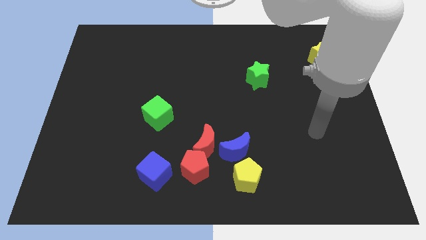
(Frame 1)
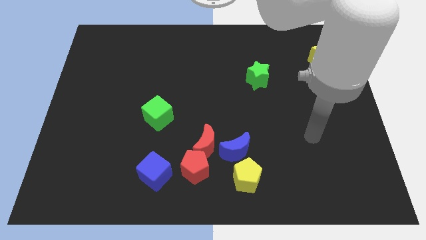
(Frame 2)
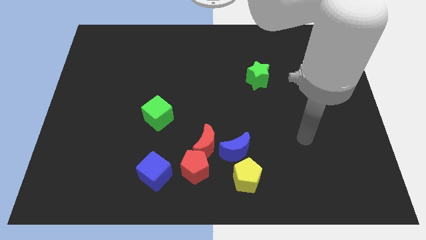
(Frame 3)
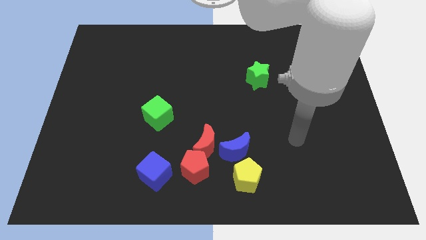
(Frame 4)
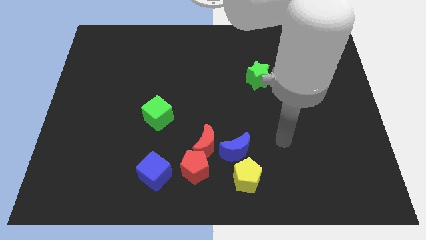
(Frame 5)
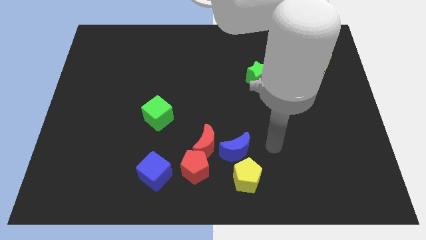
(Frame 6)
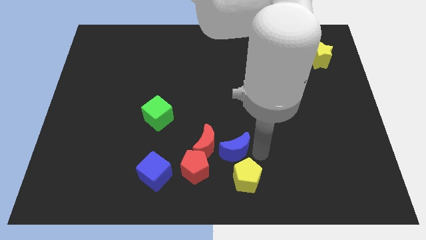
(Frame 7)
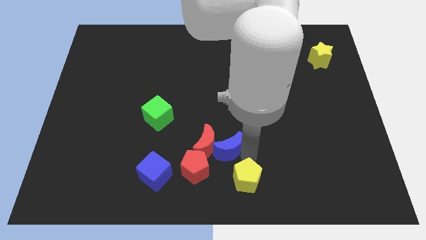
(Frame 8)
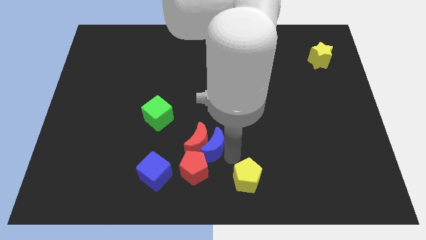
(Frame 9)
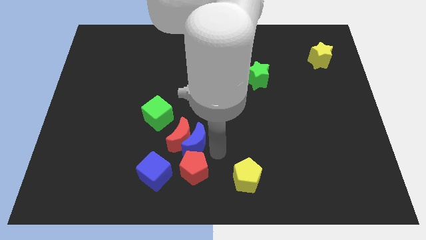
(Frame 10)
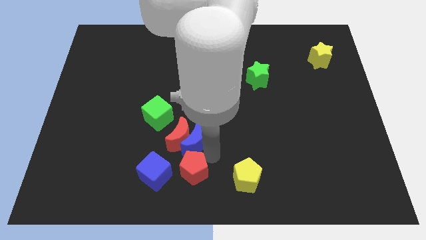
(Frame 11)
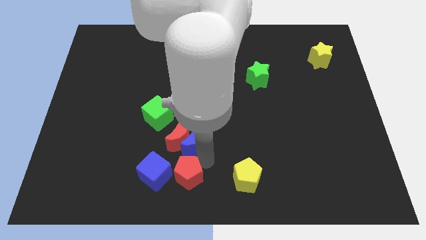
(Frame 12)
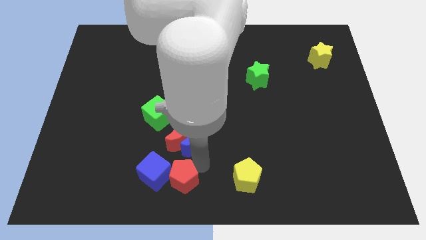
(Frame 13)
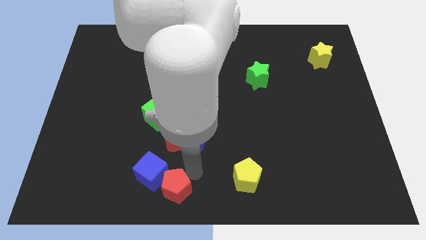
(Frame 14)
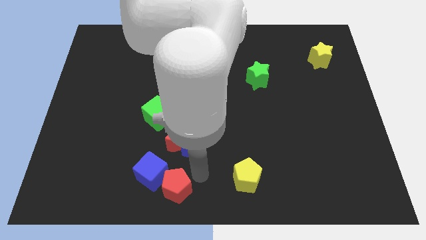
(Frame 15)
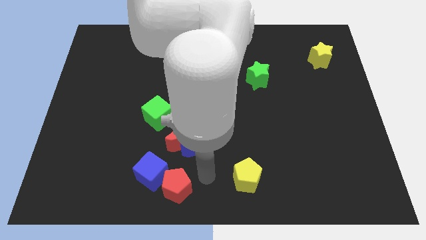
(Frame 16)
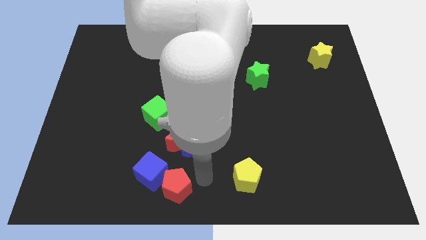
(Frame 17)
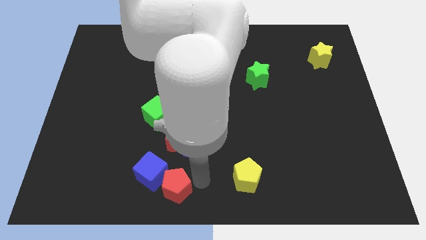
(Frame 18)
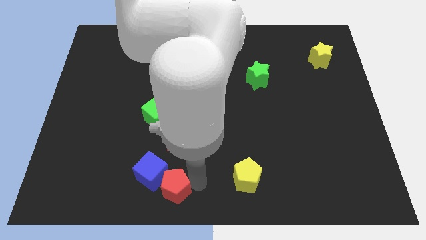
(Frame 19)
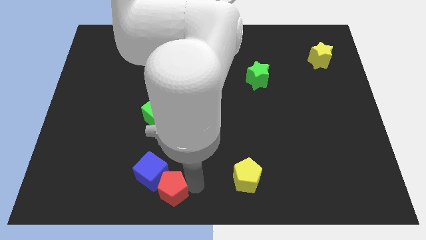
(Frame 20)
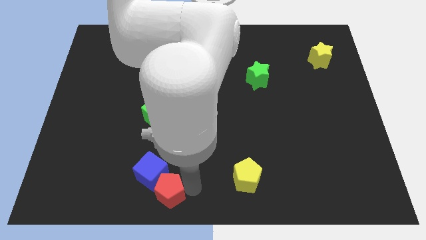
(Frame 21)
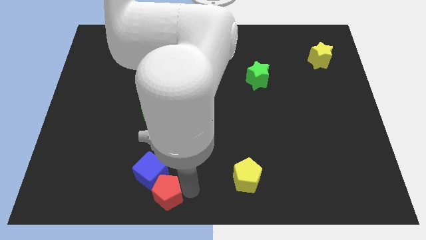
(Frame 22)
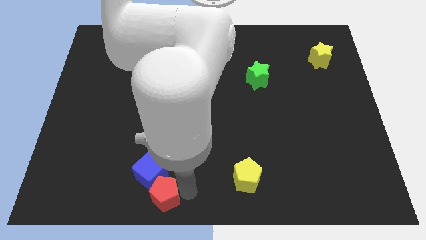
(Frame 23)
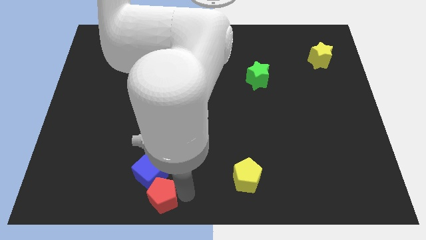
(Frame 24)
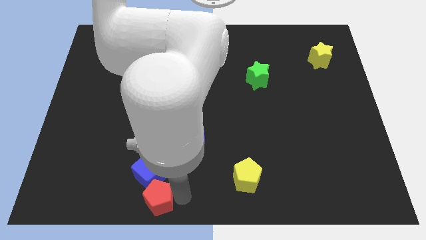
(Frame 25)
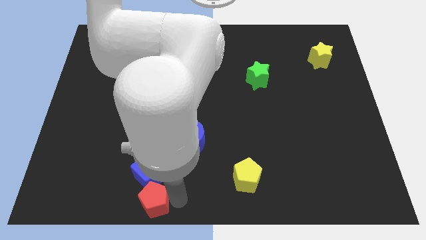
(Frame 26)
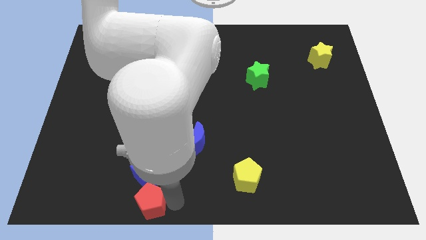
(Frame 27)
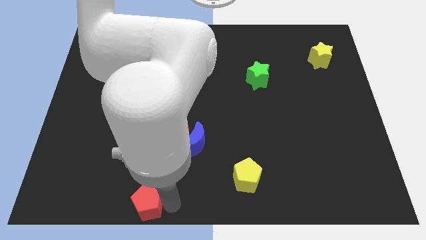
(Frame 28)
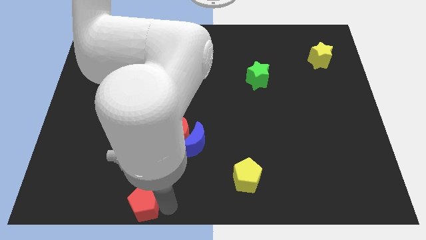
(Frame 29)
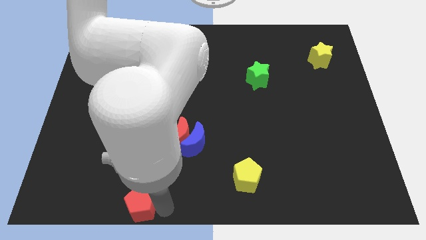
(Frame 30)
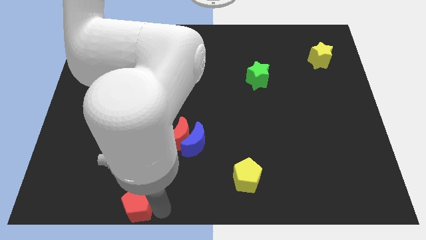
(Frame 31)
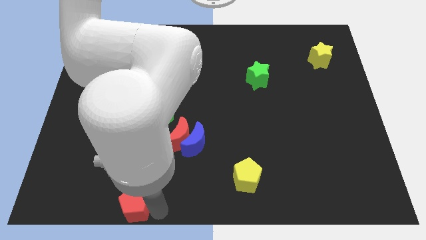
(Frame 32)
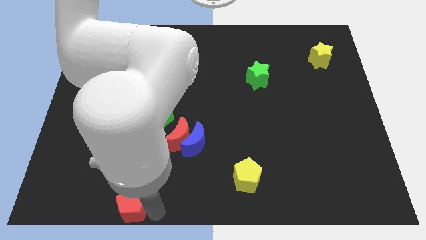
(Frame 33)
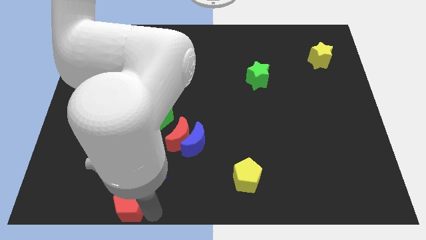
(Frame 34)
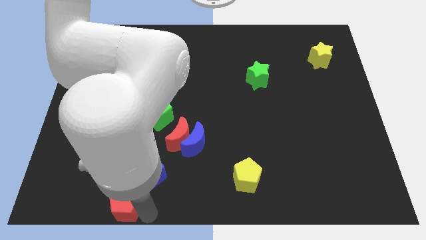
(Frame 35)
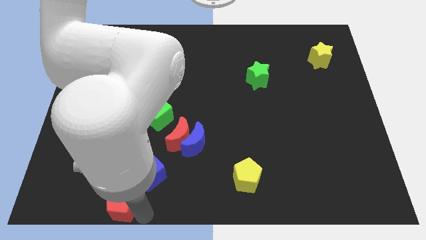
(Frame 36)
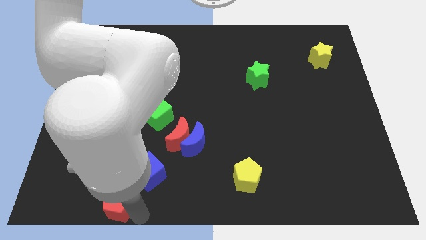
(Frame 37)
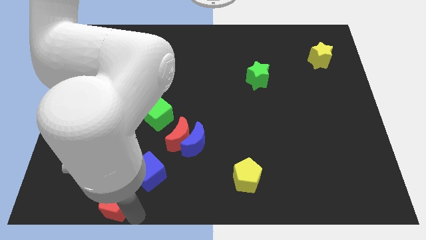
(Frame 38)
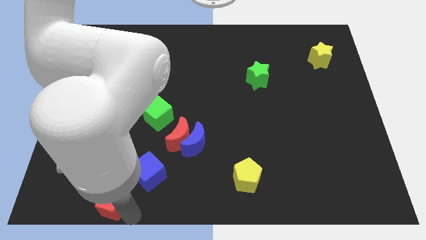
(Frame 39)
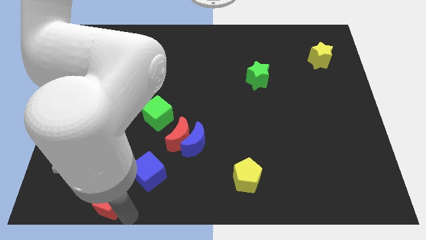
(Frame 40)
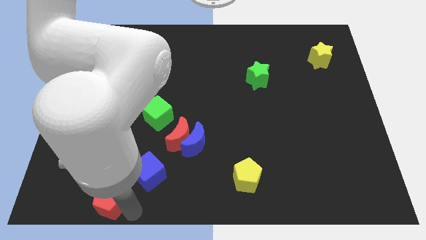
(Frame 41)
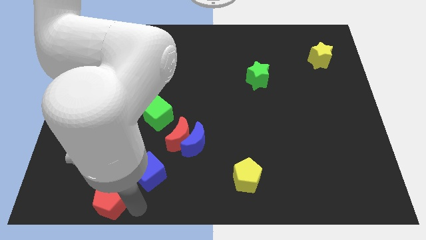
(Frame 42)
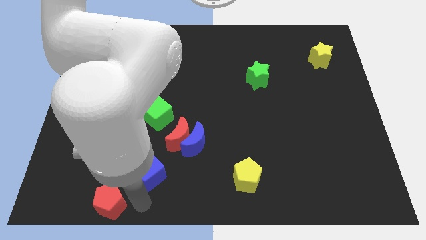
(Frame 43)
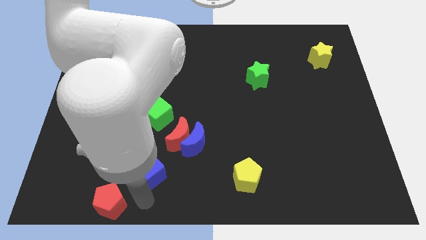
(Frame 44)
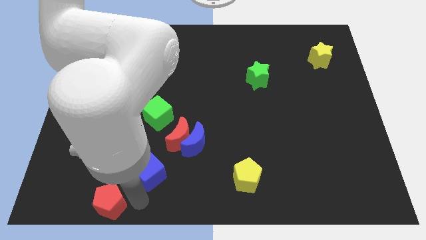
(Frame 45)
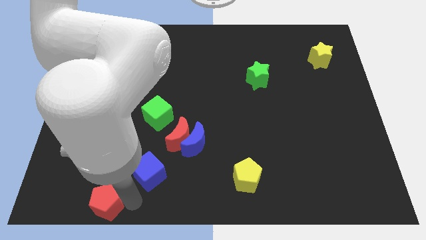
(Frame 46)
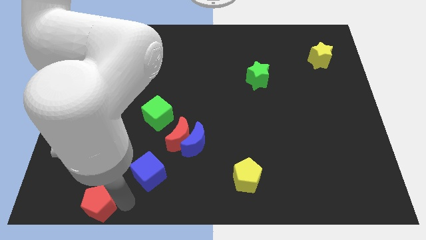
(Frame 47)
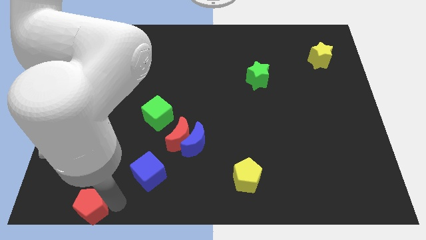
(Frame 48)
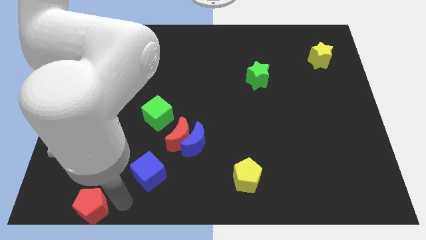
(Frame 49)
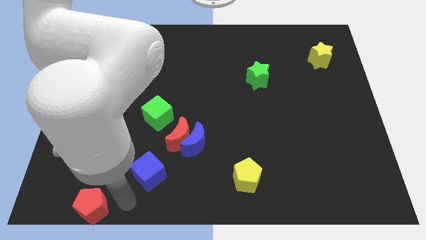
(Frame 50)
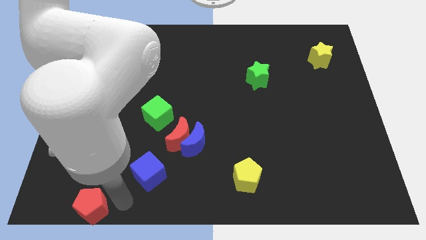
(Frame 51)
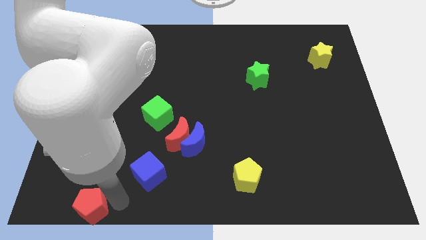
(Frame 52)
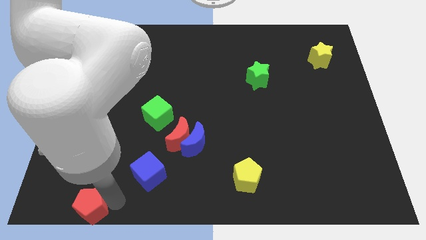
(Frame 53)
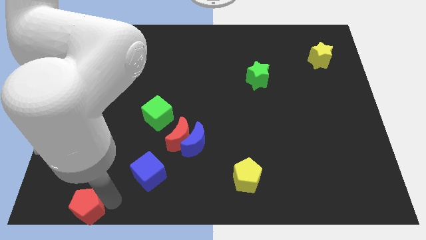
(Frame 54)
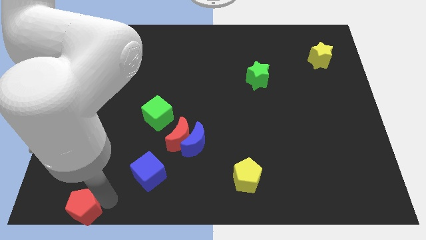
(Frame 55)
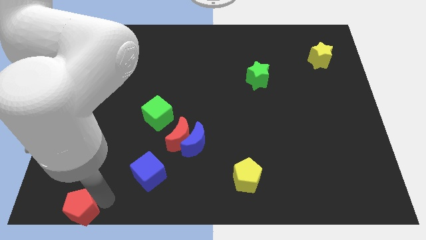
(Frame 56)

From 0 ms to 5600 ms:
slide the red pentagon to the bottom left of the board

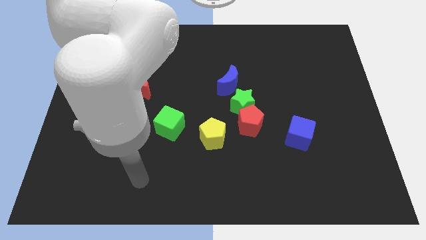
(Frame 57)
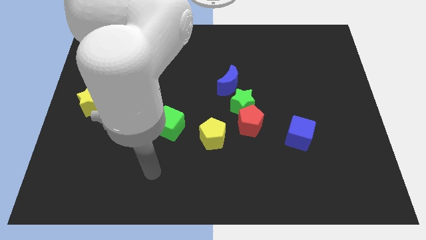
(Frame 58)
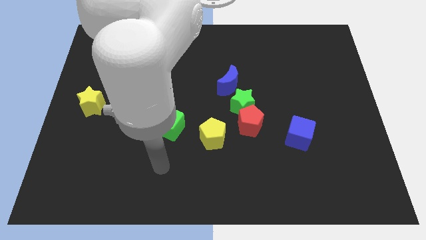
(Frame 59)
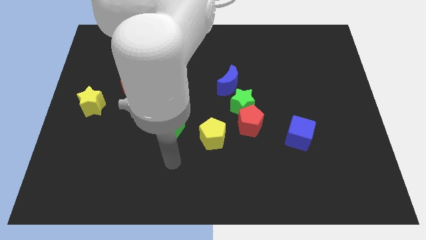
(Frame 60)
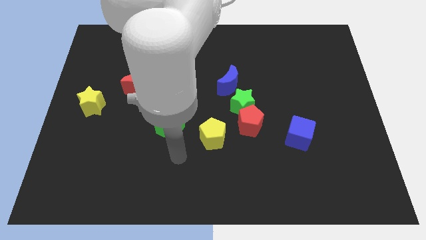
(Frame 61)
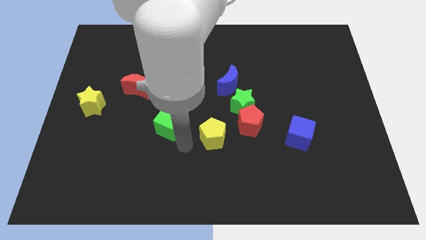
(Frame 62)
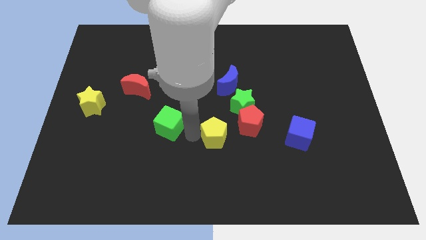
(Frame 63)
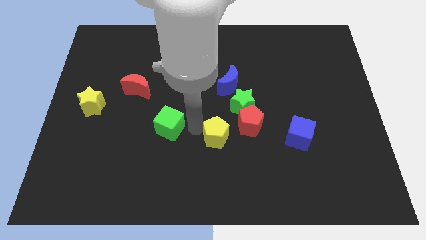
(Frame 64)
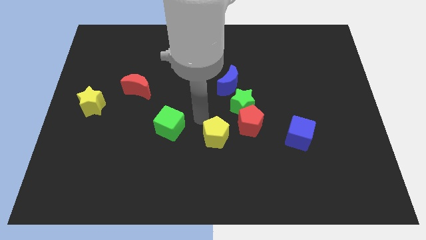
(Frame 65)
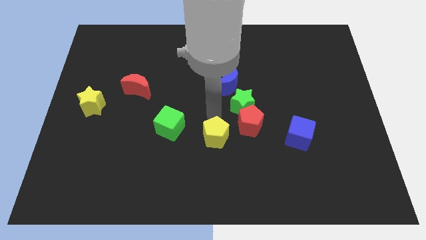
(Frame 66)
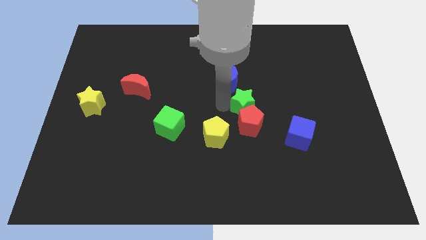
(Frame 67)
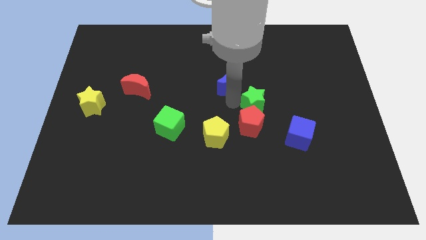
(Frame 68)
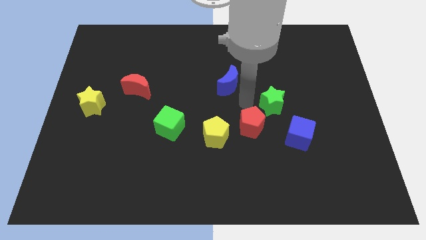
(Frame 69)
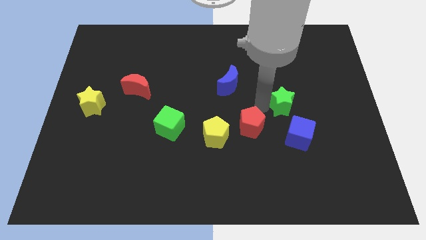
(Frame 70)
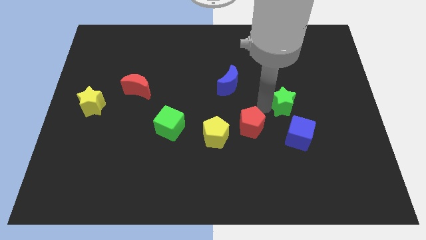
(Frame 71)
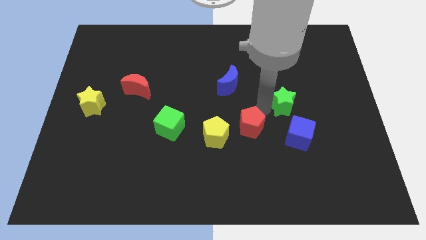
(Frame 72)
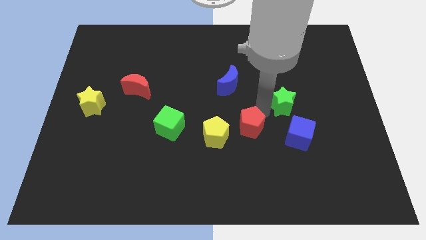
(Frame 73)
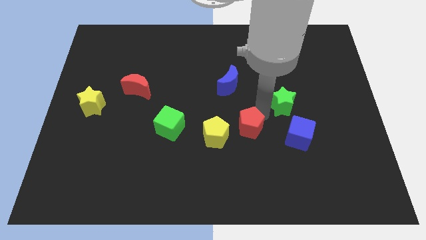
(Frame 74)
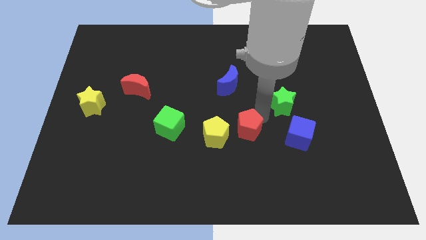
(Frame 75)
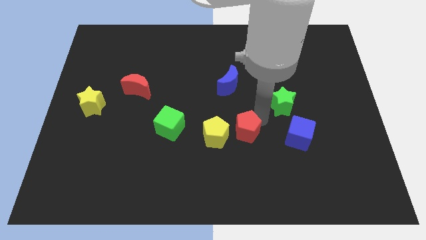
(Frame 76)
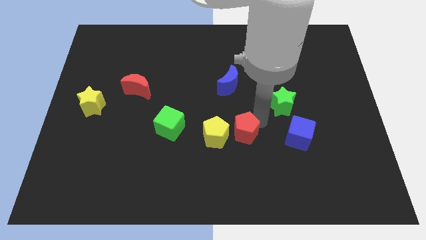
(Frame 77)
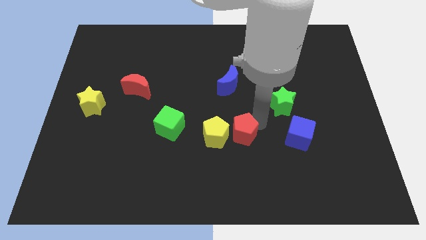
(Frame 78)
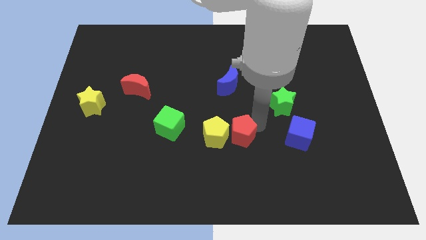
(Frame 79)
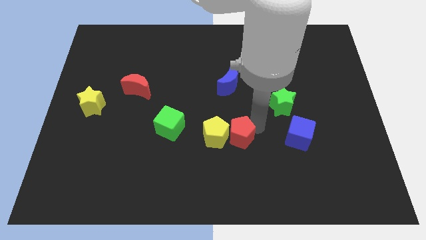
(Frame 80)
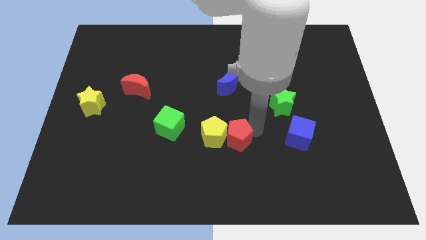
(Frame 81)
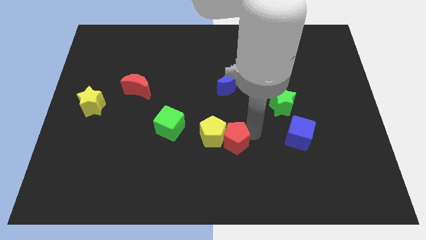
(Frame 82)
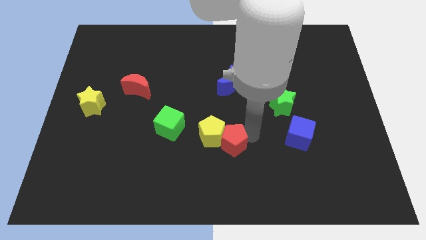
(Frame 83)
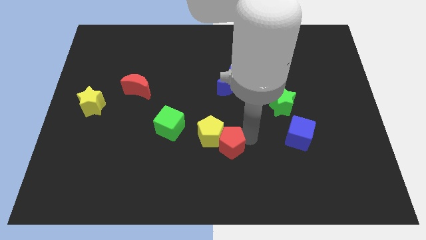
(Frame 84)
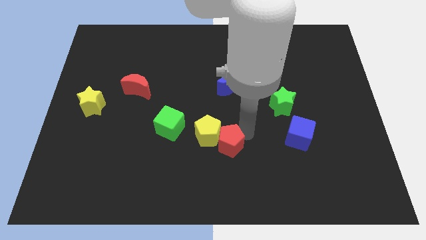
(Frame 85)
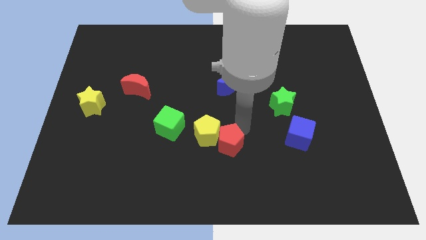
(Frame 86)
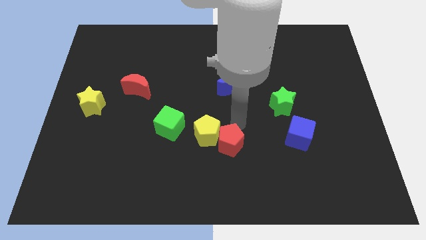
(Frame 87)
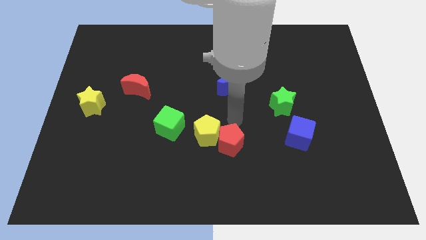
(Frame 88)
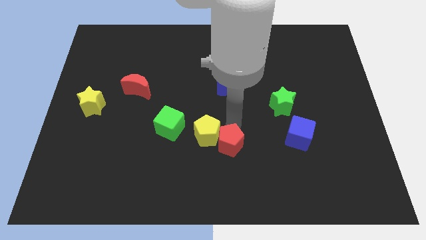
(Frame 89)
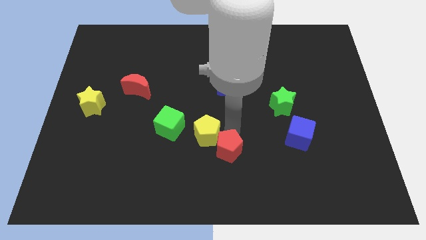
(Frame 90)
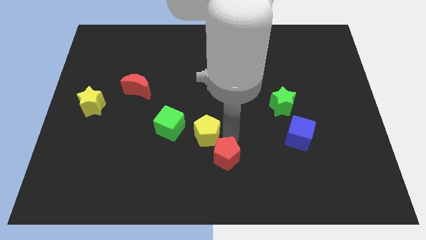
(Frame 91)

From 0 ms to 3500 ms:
put the red pentagon to the bottom side
